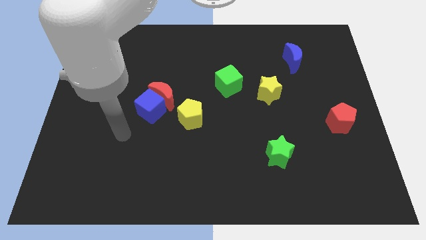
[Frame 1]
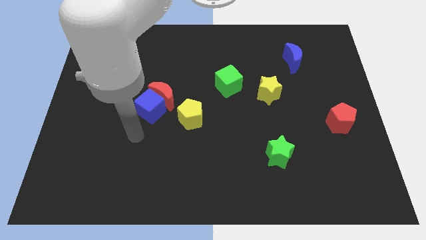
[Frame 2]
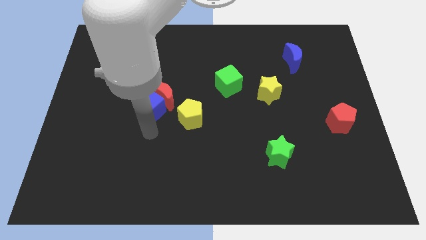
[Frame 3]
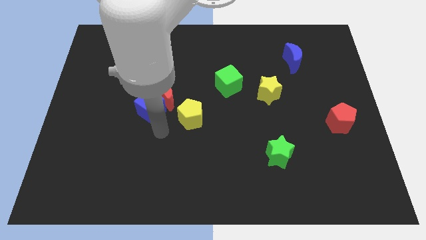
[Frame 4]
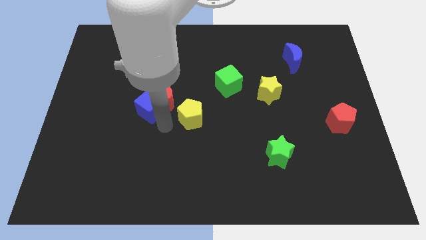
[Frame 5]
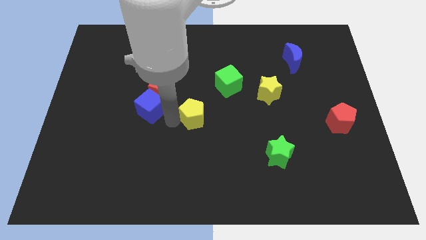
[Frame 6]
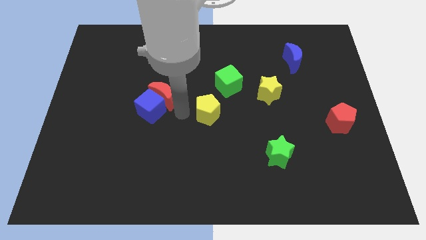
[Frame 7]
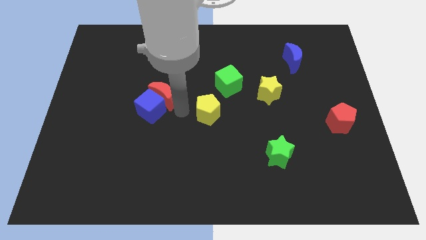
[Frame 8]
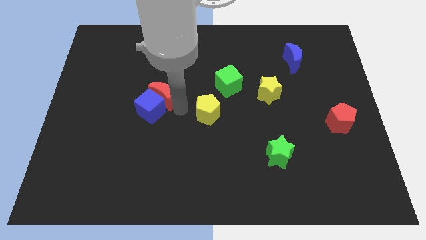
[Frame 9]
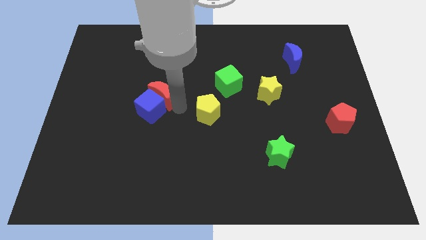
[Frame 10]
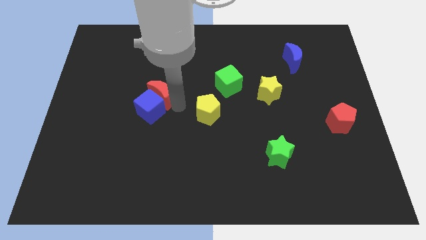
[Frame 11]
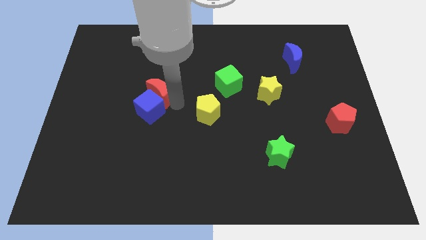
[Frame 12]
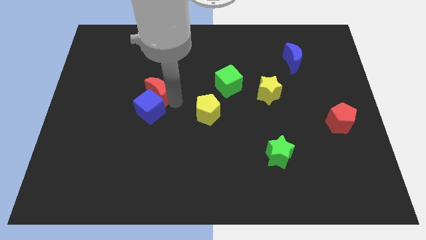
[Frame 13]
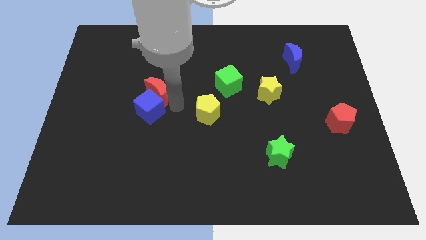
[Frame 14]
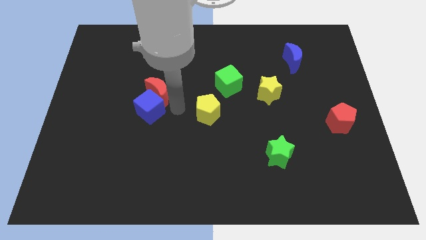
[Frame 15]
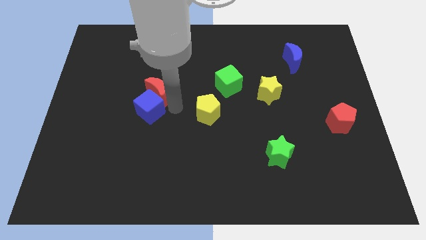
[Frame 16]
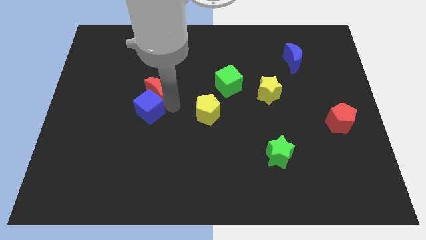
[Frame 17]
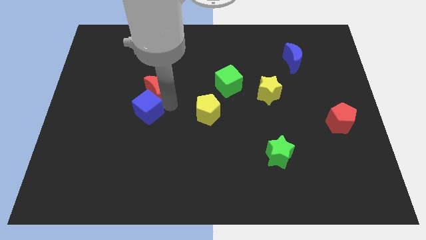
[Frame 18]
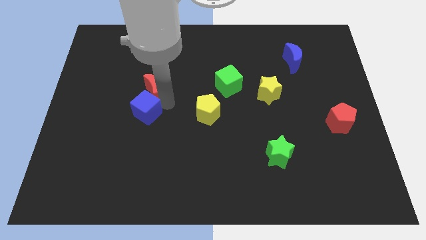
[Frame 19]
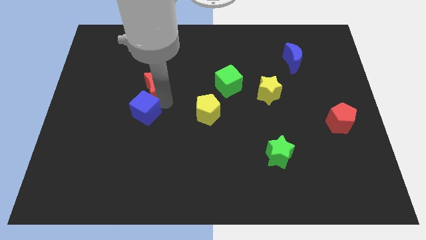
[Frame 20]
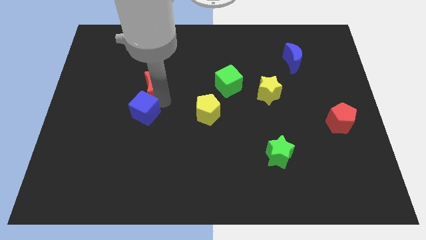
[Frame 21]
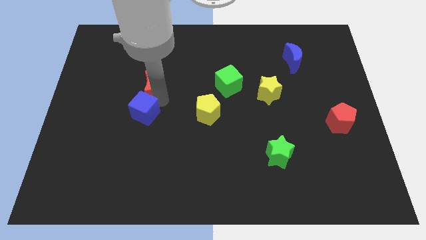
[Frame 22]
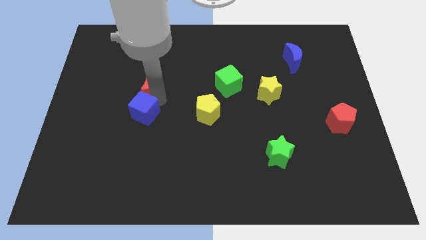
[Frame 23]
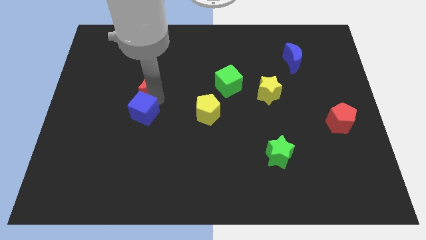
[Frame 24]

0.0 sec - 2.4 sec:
move the red moon away from the blue cube and yellow pentagon

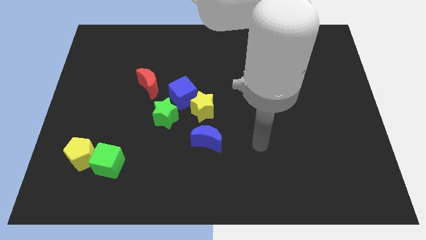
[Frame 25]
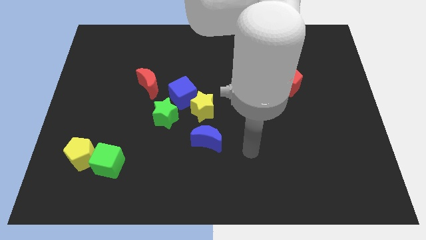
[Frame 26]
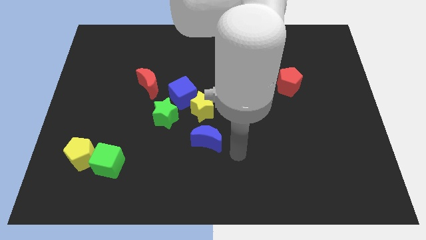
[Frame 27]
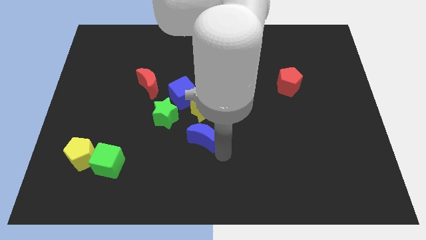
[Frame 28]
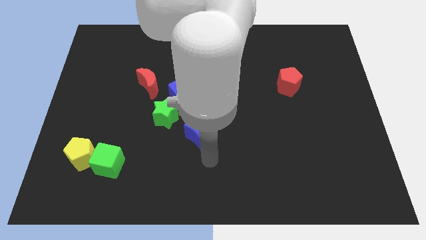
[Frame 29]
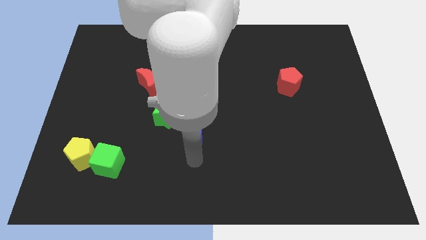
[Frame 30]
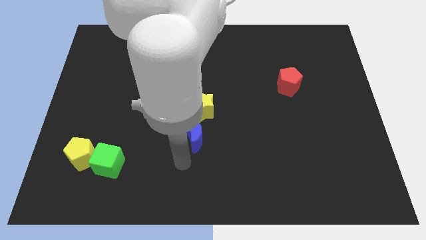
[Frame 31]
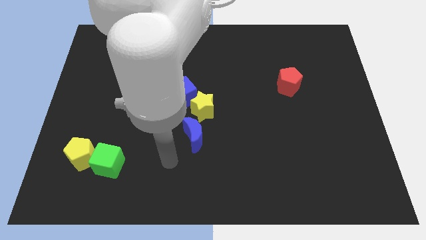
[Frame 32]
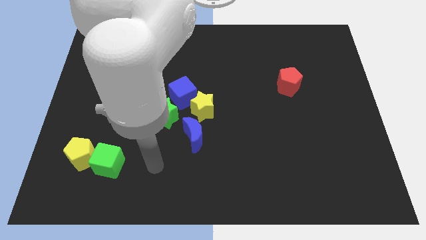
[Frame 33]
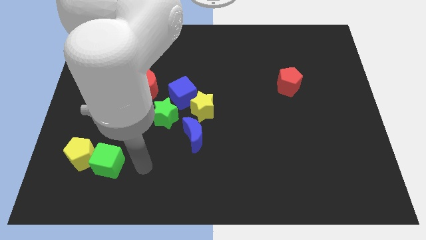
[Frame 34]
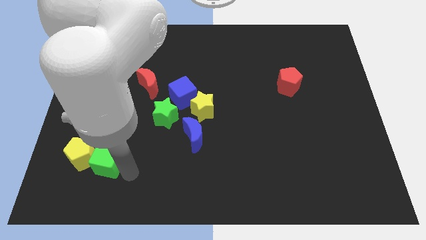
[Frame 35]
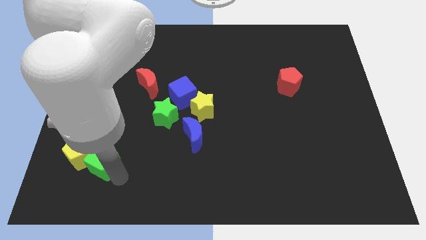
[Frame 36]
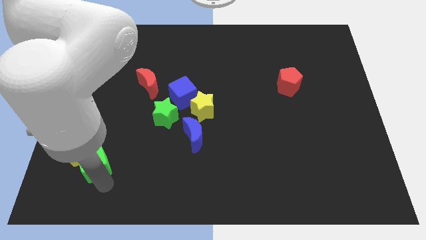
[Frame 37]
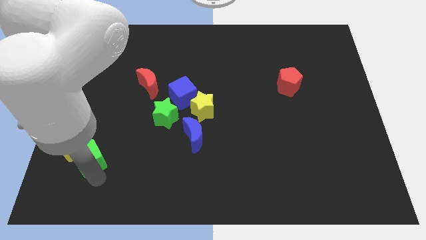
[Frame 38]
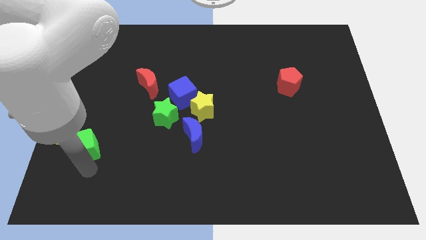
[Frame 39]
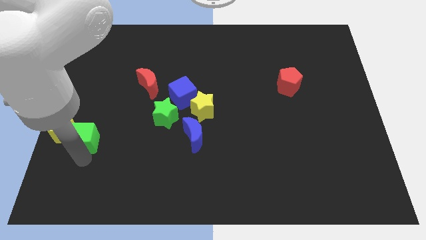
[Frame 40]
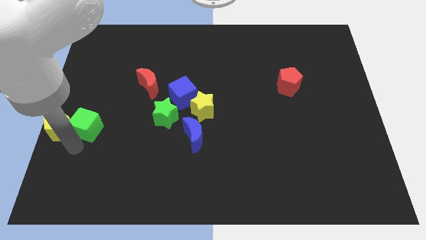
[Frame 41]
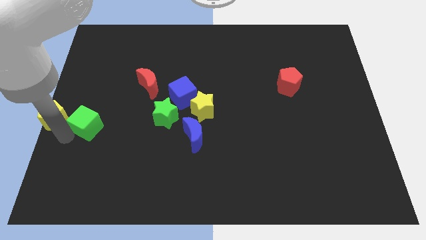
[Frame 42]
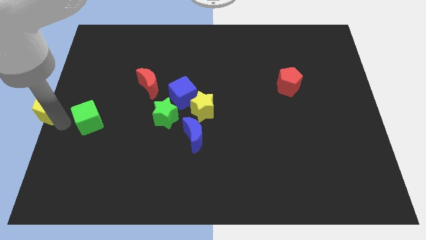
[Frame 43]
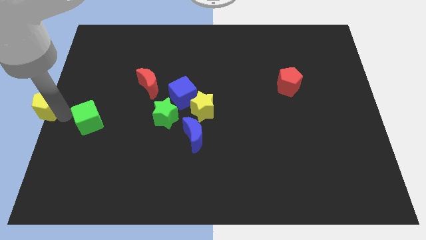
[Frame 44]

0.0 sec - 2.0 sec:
separate the green cube from the yellow pentagon

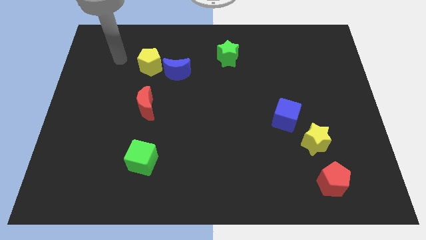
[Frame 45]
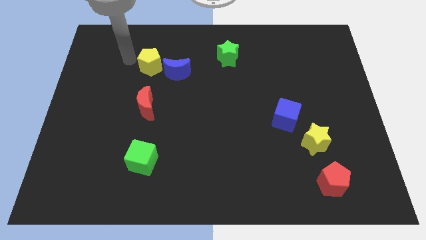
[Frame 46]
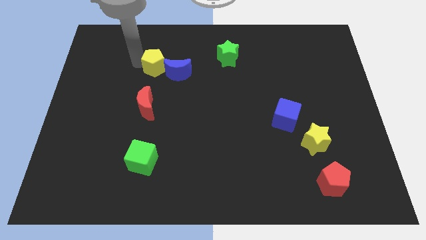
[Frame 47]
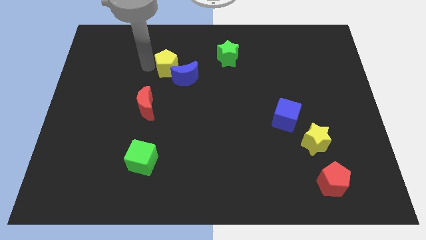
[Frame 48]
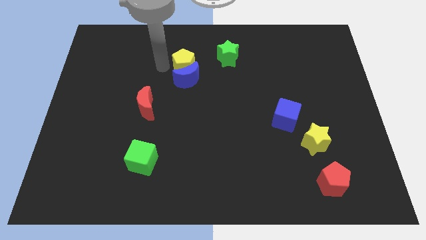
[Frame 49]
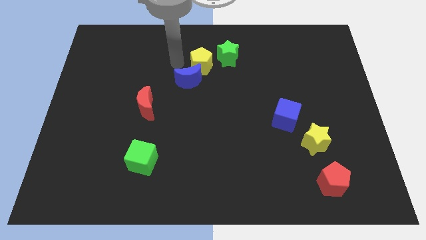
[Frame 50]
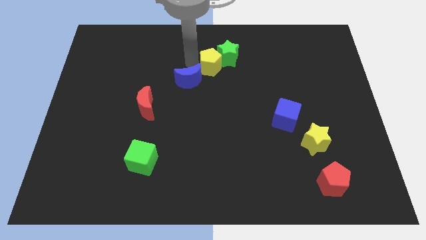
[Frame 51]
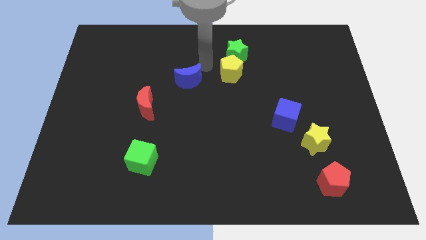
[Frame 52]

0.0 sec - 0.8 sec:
separate the blue moon from the yellow pentagon

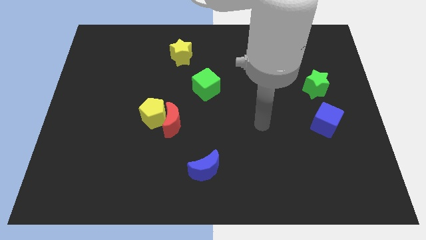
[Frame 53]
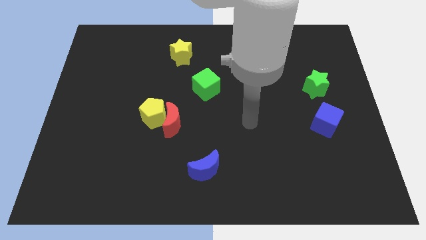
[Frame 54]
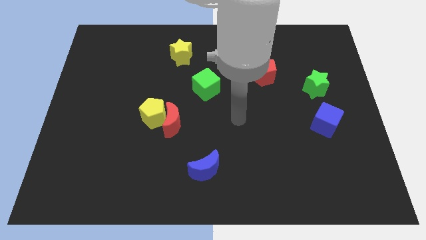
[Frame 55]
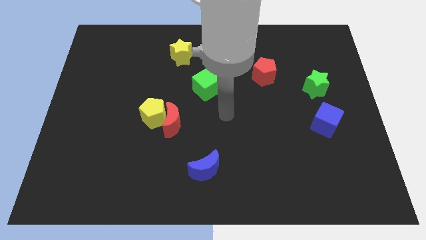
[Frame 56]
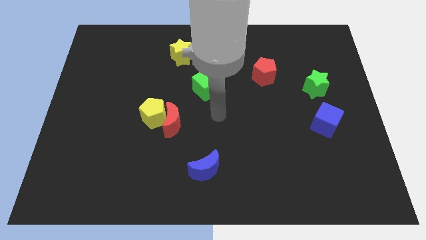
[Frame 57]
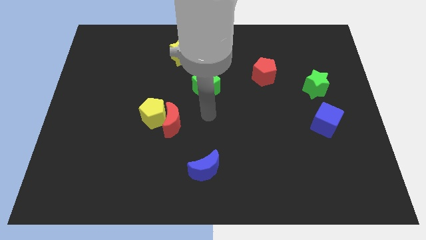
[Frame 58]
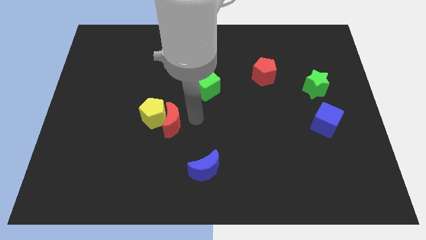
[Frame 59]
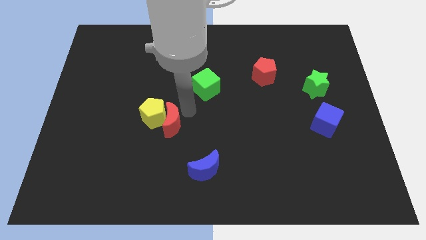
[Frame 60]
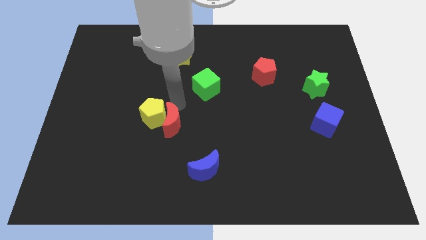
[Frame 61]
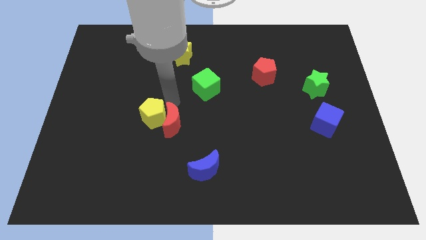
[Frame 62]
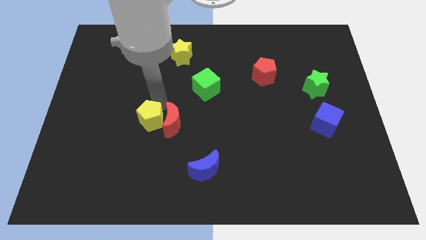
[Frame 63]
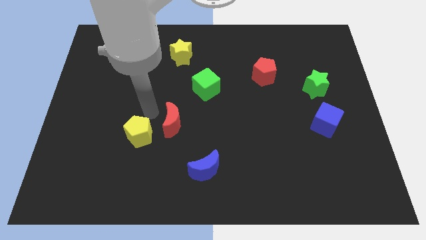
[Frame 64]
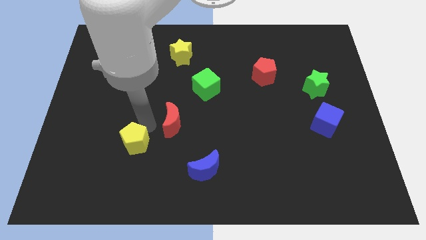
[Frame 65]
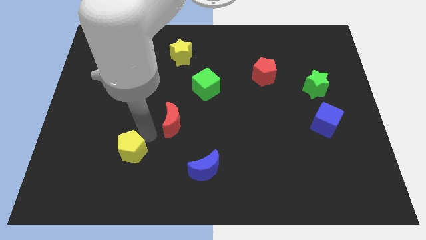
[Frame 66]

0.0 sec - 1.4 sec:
separate the red moon from the yellow pentagon

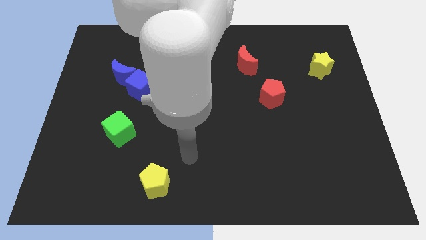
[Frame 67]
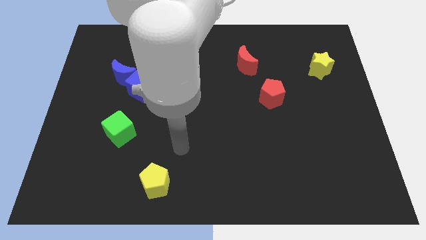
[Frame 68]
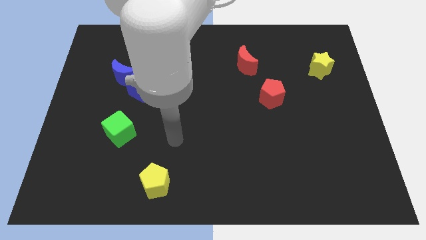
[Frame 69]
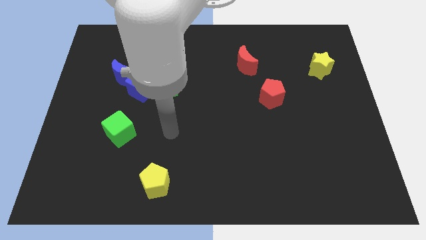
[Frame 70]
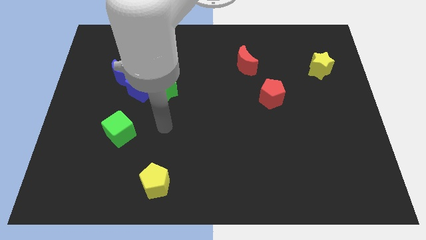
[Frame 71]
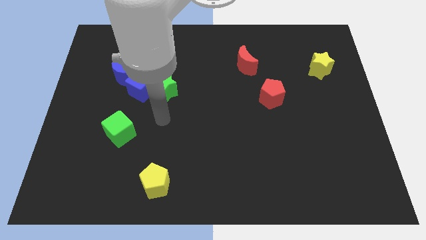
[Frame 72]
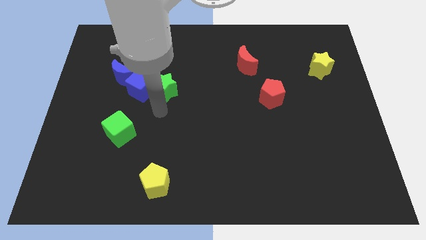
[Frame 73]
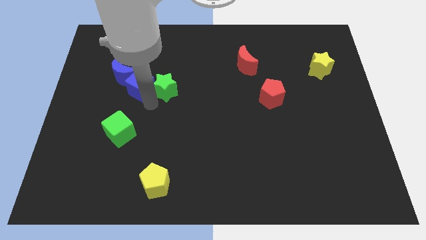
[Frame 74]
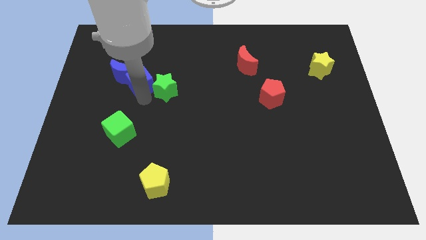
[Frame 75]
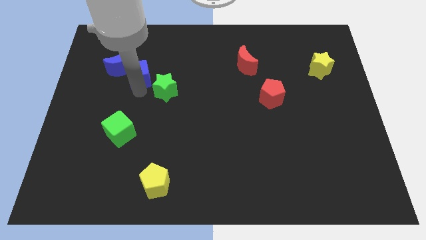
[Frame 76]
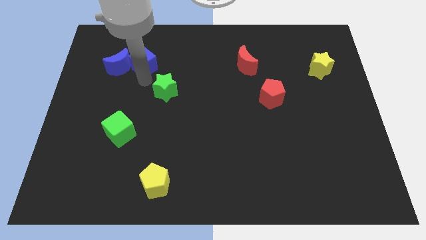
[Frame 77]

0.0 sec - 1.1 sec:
pull the green star apart from the blue cube

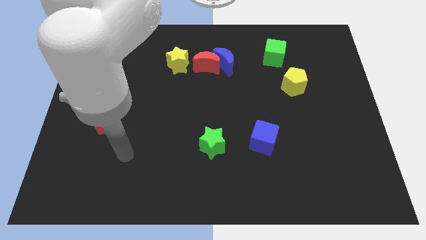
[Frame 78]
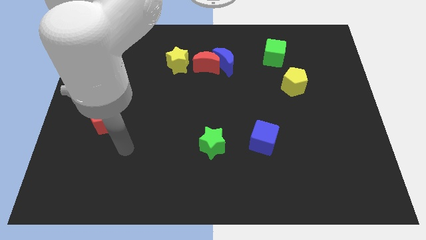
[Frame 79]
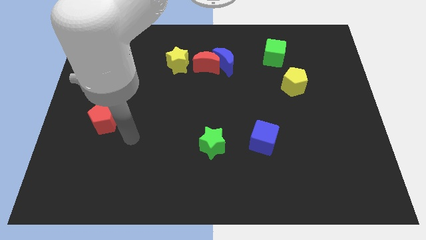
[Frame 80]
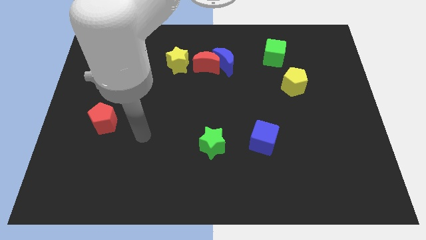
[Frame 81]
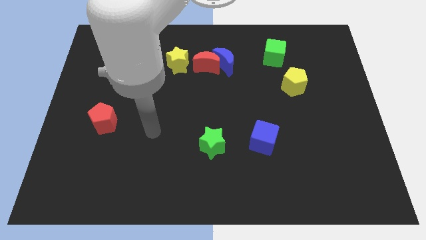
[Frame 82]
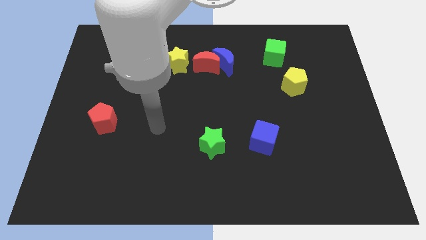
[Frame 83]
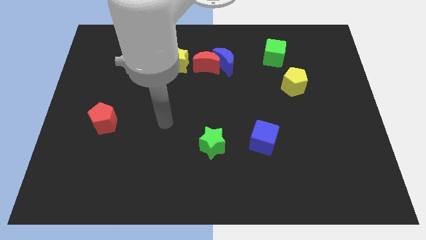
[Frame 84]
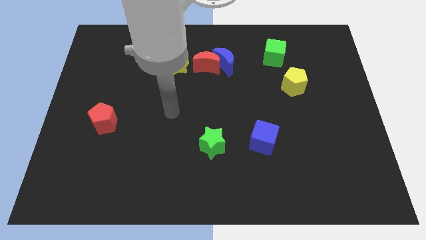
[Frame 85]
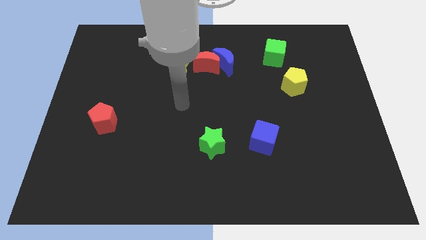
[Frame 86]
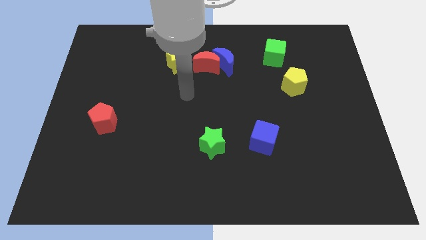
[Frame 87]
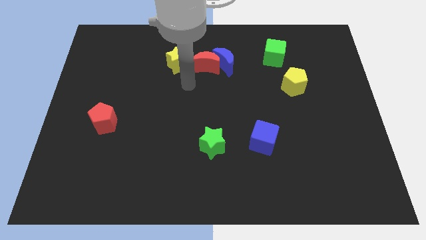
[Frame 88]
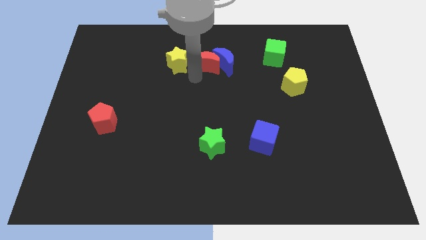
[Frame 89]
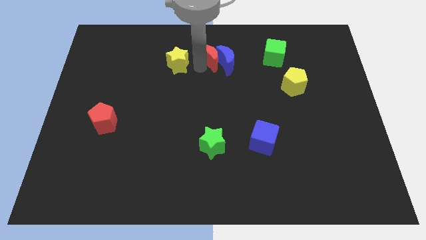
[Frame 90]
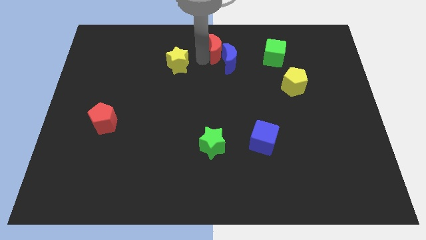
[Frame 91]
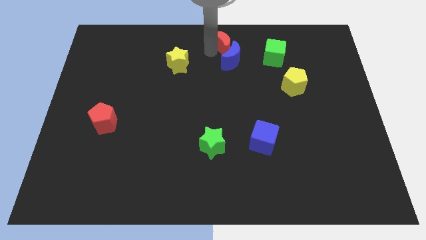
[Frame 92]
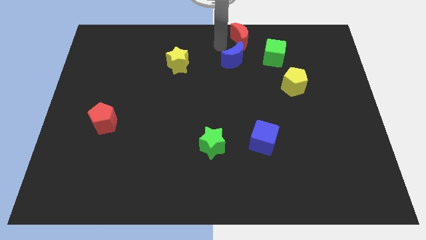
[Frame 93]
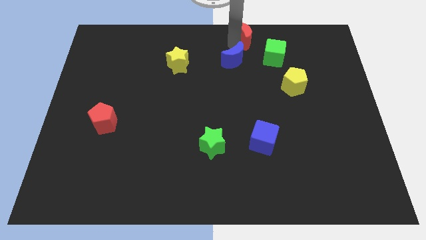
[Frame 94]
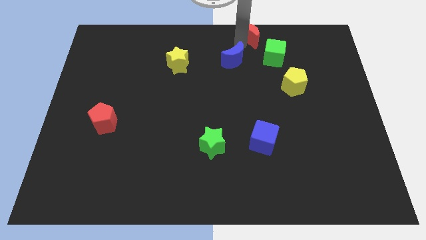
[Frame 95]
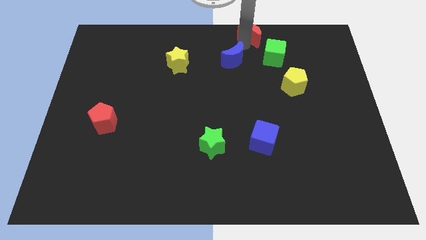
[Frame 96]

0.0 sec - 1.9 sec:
pull the blue moon apart from the red moon
